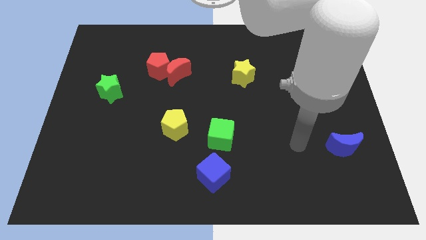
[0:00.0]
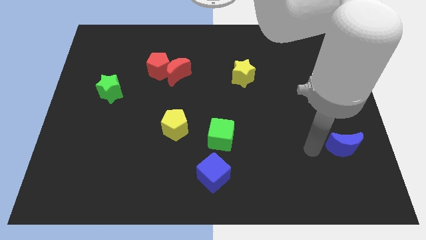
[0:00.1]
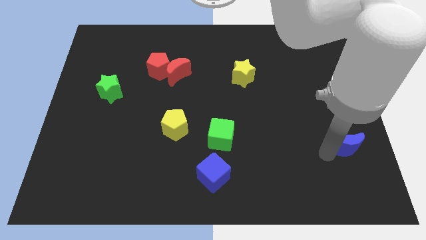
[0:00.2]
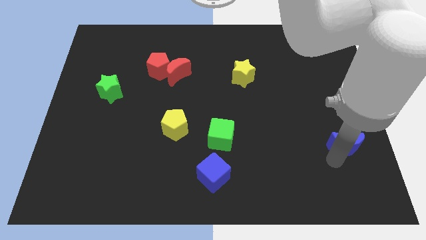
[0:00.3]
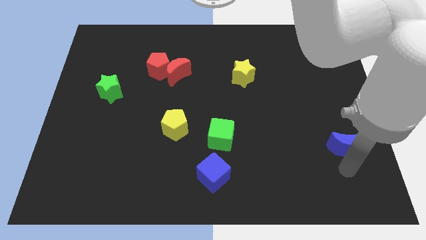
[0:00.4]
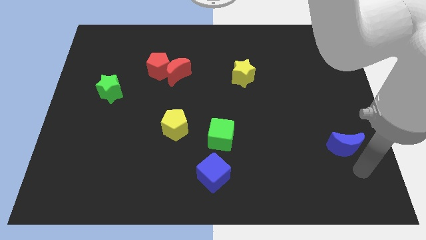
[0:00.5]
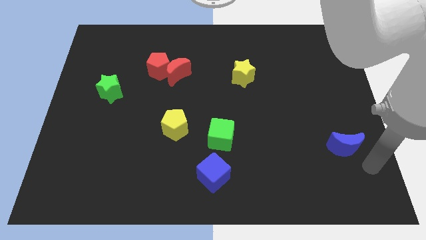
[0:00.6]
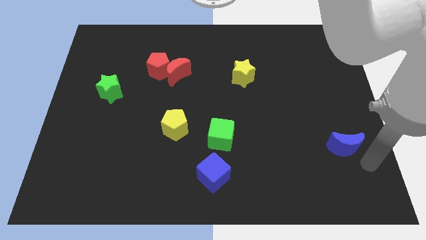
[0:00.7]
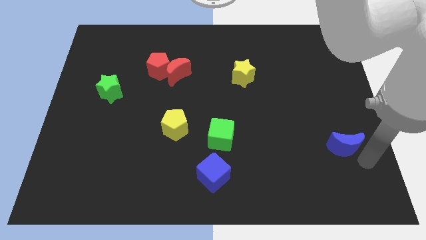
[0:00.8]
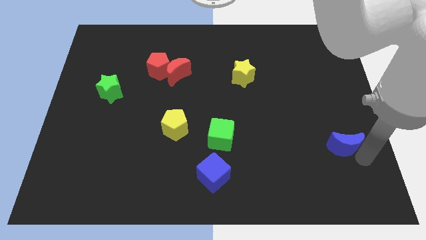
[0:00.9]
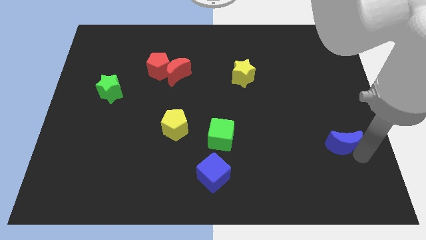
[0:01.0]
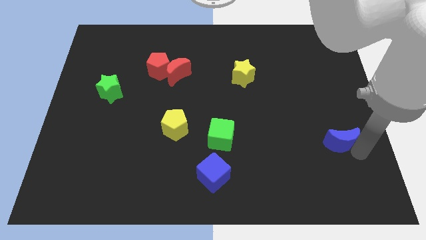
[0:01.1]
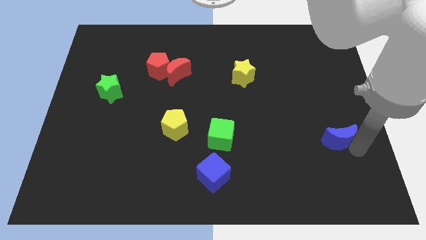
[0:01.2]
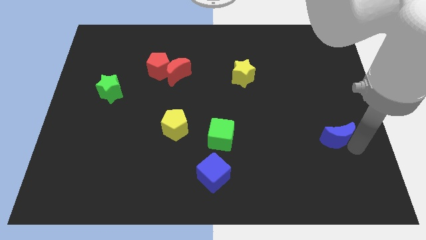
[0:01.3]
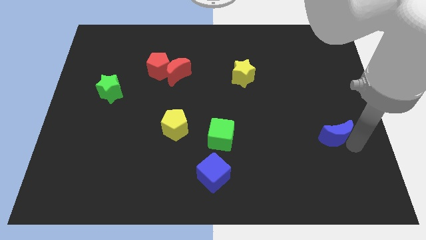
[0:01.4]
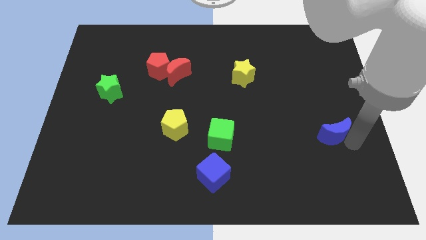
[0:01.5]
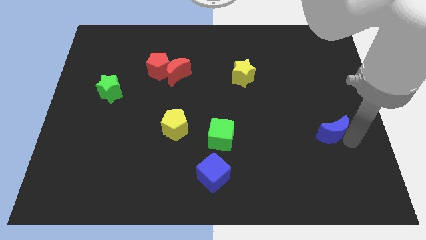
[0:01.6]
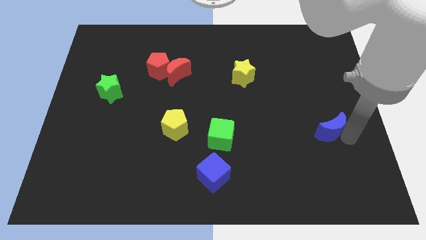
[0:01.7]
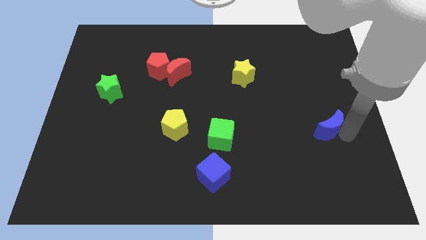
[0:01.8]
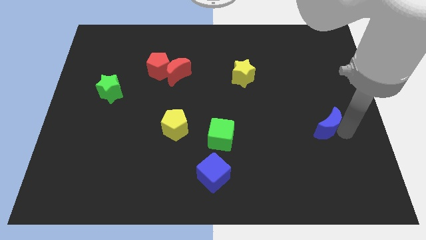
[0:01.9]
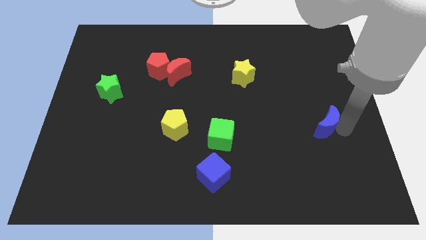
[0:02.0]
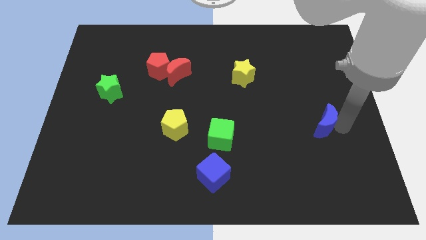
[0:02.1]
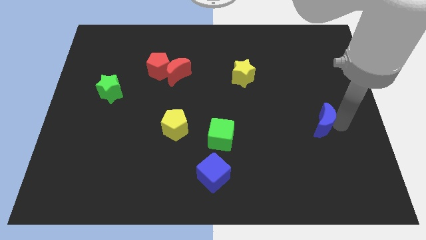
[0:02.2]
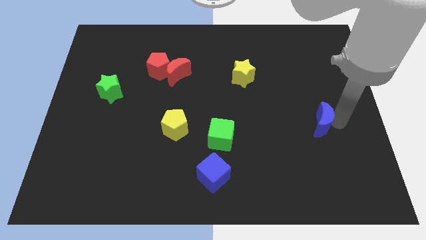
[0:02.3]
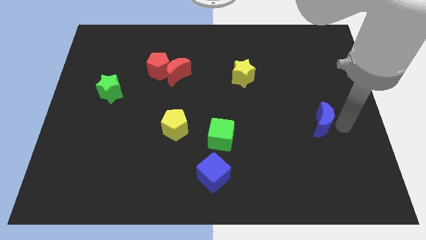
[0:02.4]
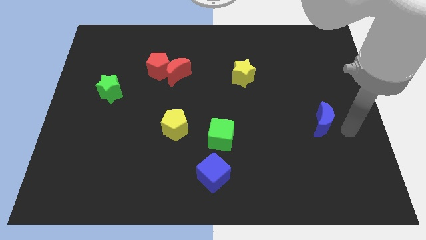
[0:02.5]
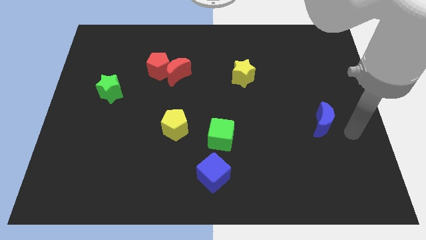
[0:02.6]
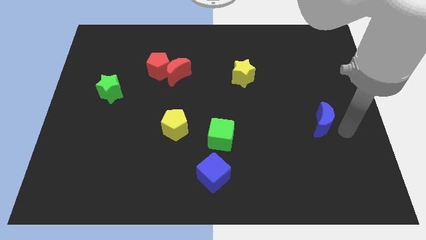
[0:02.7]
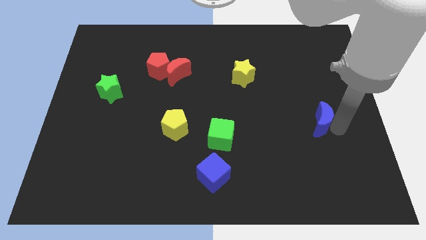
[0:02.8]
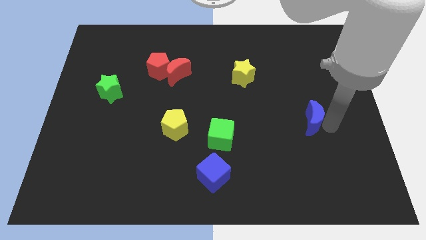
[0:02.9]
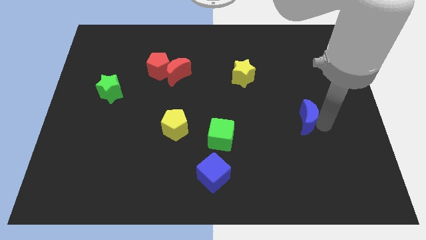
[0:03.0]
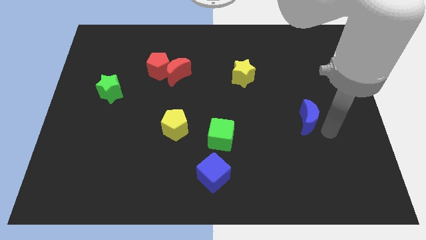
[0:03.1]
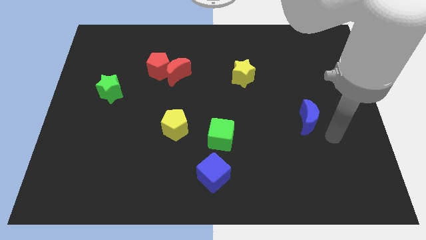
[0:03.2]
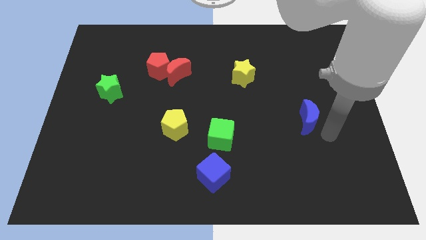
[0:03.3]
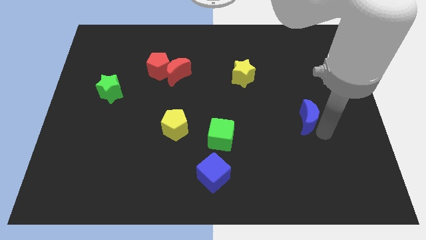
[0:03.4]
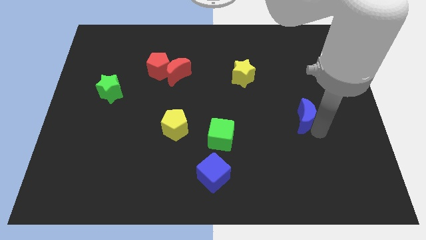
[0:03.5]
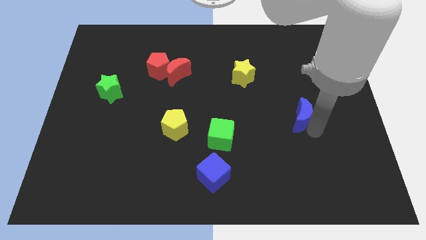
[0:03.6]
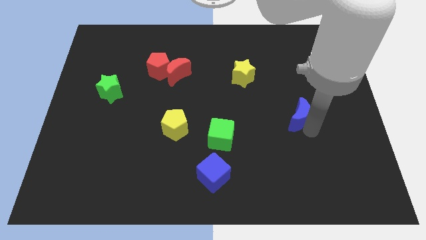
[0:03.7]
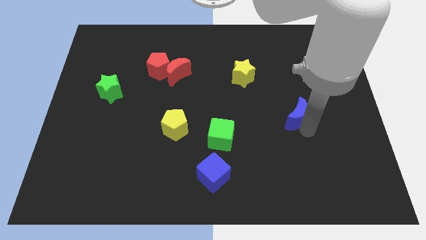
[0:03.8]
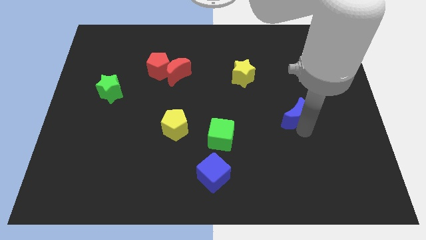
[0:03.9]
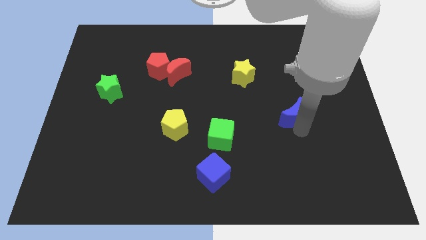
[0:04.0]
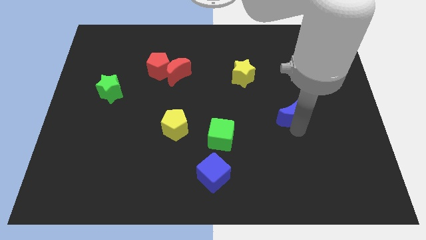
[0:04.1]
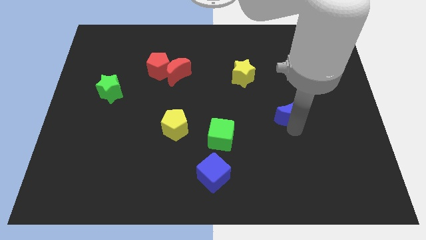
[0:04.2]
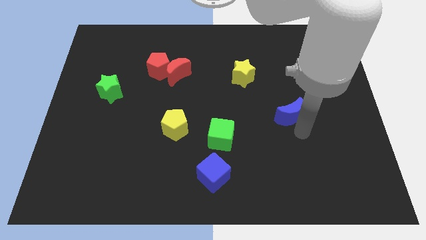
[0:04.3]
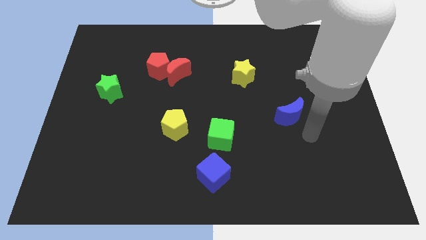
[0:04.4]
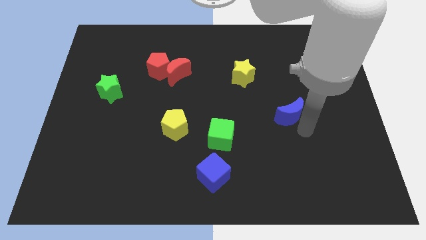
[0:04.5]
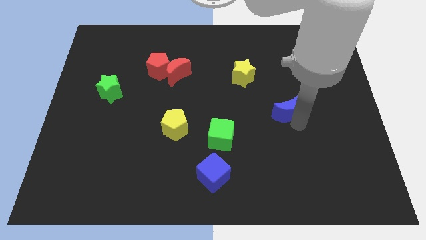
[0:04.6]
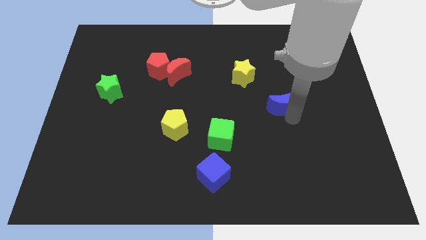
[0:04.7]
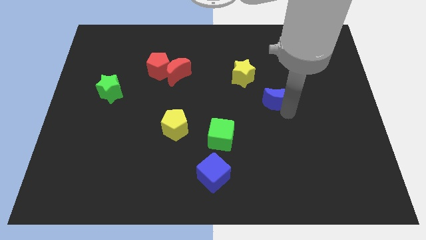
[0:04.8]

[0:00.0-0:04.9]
move the blue moon to the bottom right of the yellow star

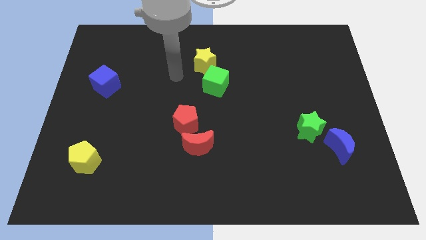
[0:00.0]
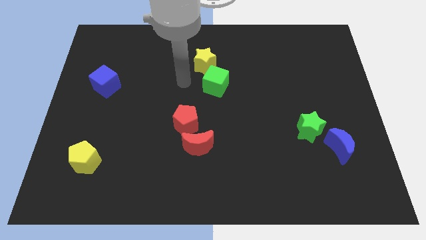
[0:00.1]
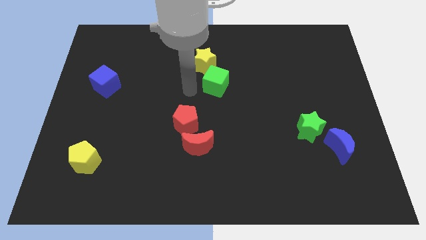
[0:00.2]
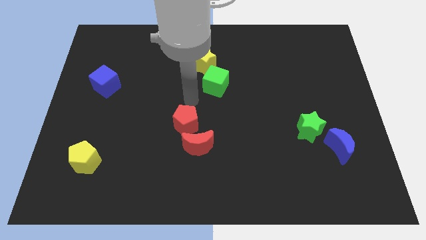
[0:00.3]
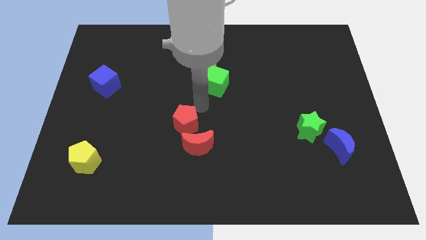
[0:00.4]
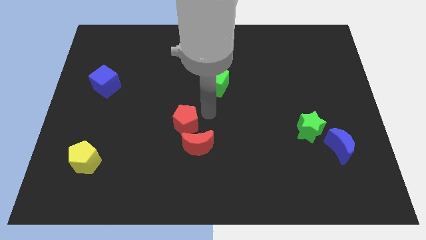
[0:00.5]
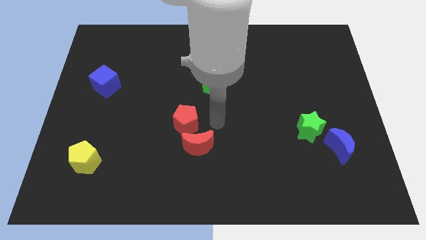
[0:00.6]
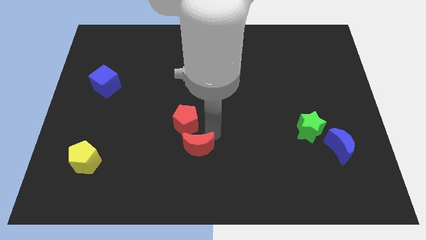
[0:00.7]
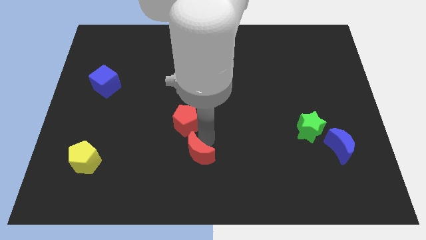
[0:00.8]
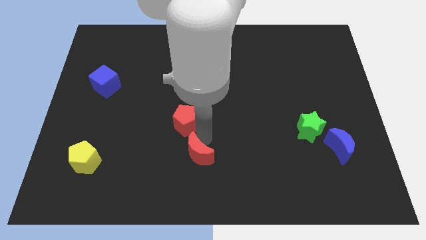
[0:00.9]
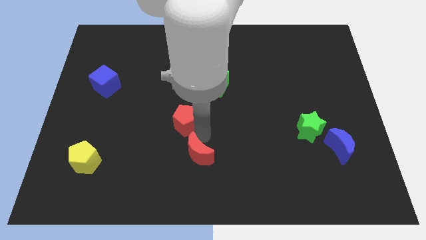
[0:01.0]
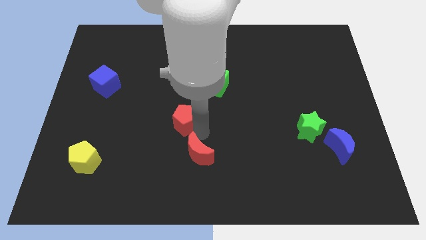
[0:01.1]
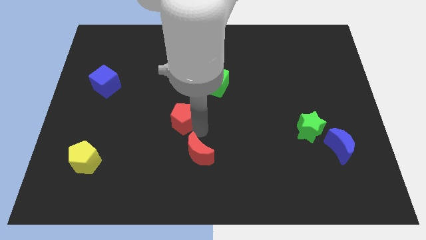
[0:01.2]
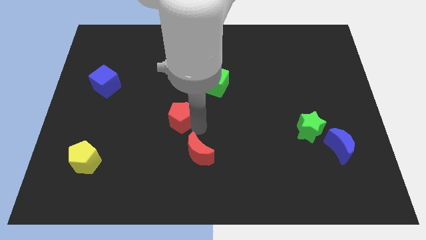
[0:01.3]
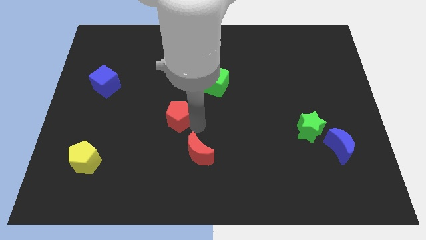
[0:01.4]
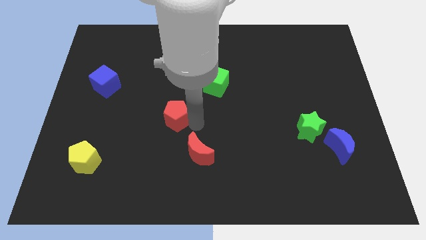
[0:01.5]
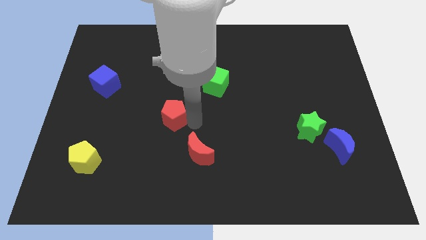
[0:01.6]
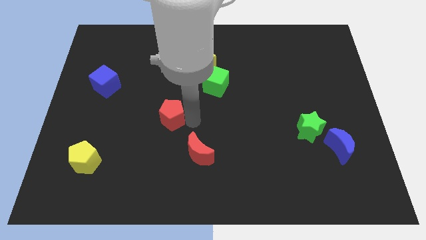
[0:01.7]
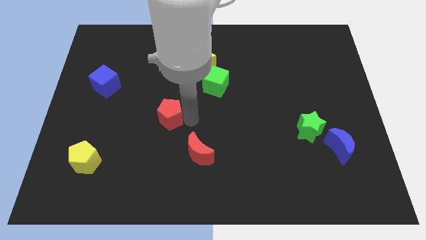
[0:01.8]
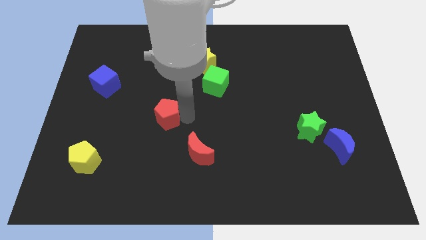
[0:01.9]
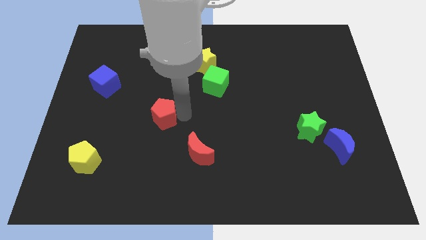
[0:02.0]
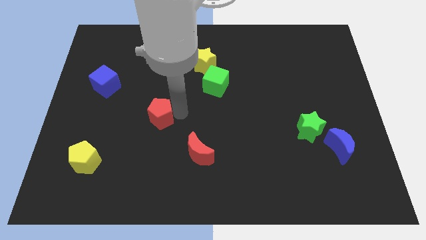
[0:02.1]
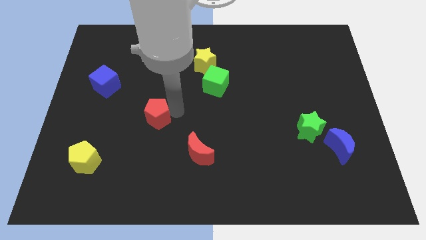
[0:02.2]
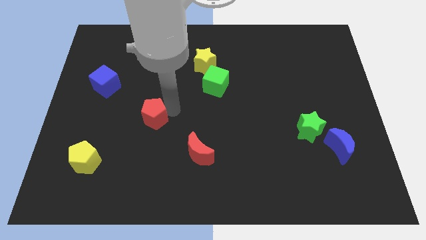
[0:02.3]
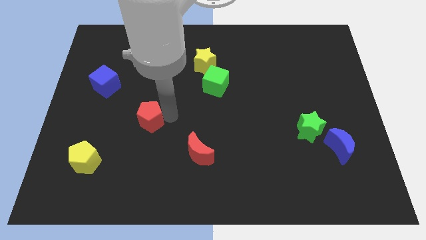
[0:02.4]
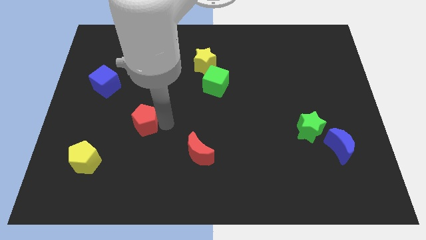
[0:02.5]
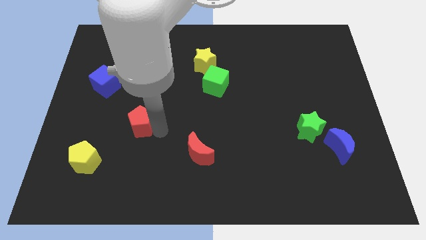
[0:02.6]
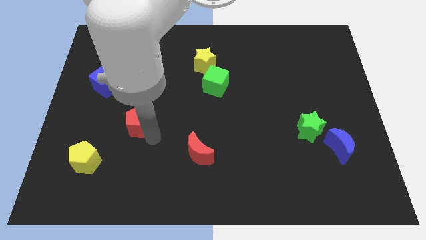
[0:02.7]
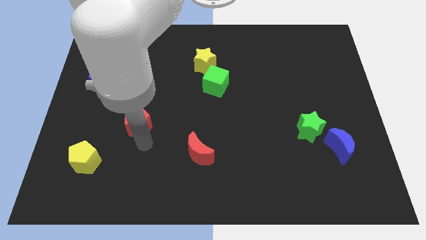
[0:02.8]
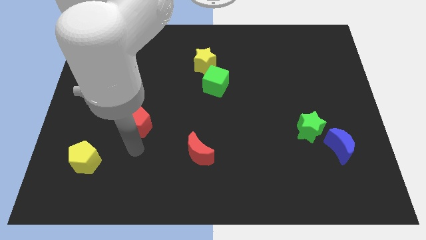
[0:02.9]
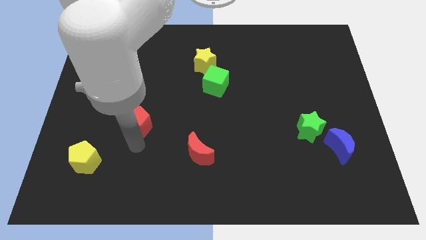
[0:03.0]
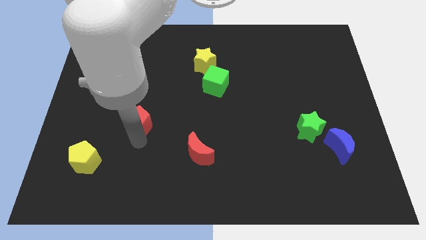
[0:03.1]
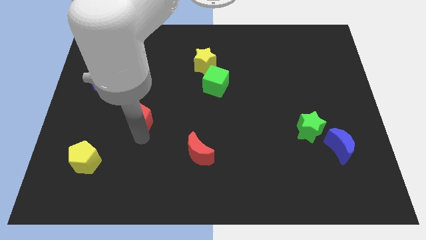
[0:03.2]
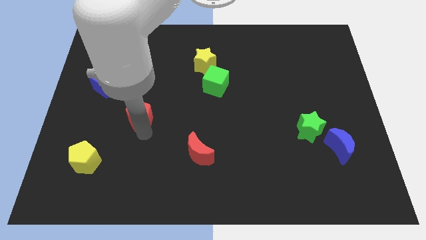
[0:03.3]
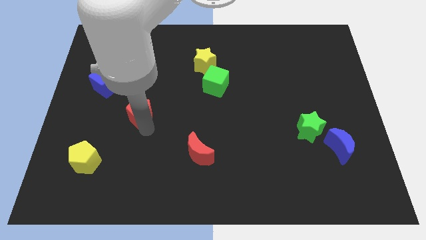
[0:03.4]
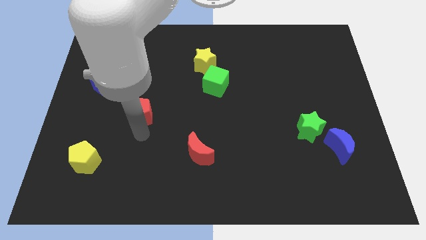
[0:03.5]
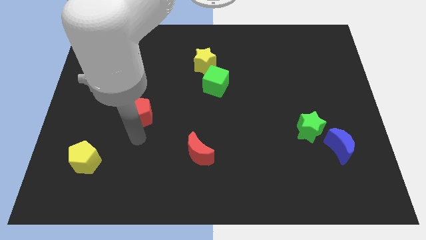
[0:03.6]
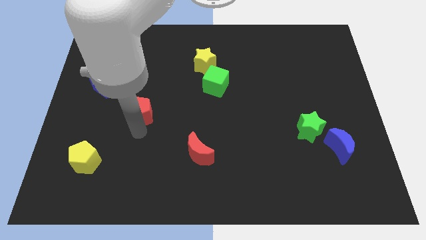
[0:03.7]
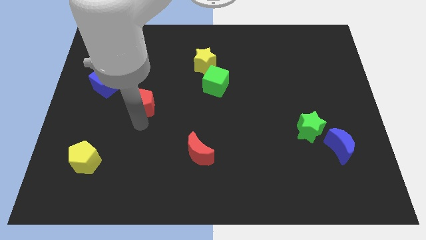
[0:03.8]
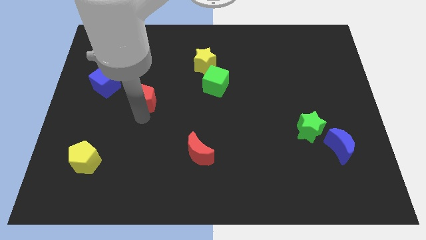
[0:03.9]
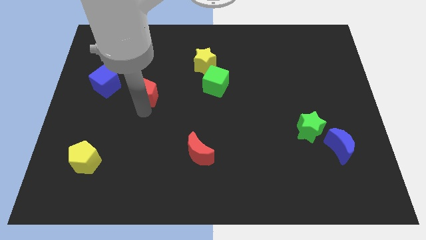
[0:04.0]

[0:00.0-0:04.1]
push the red pentagon to the right of the blue cube
